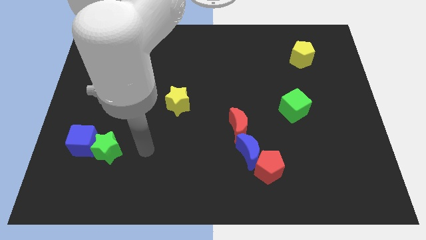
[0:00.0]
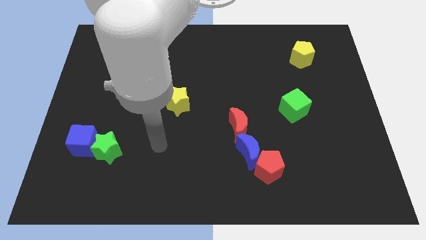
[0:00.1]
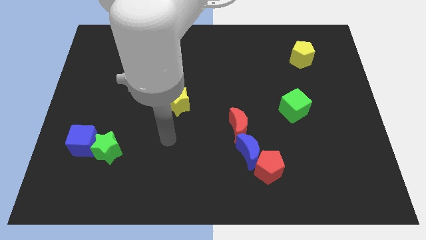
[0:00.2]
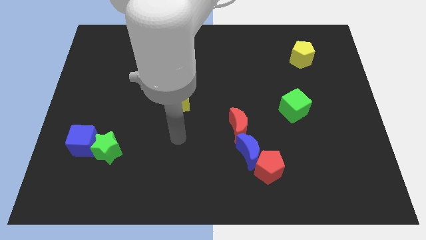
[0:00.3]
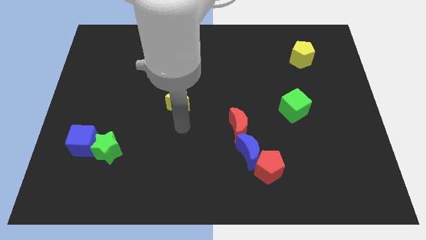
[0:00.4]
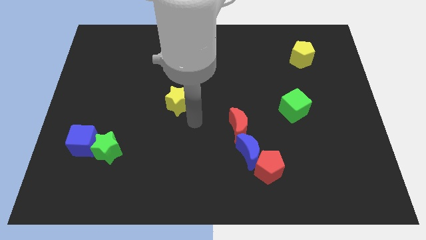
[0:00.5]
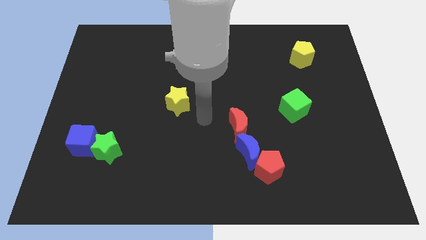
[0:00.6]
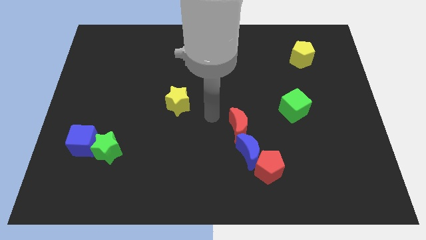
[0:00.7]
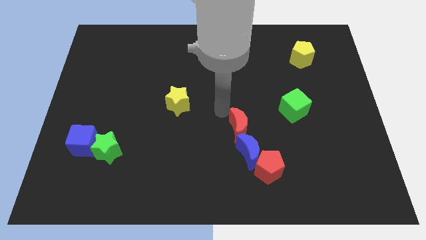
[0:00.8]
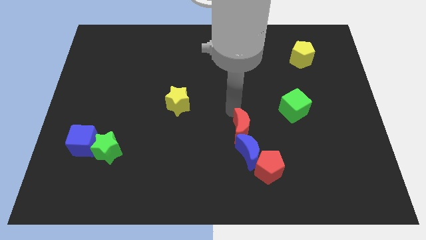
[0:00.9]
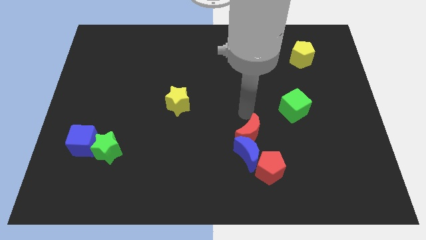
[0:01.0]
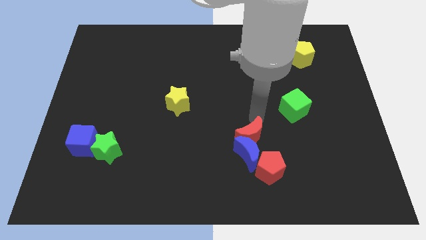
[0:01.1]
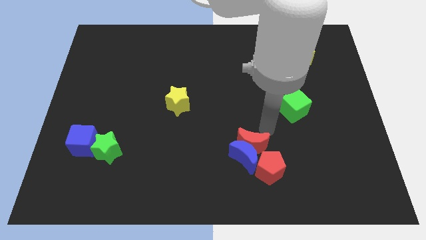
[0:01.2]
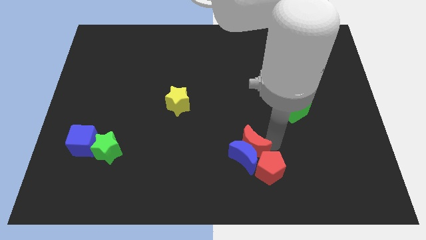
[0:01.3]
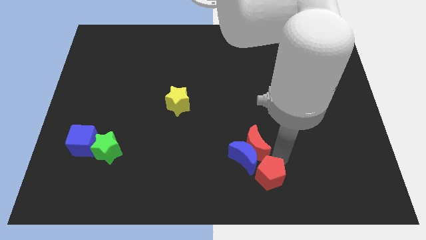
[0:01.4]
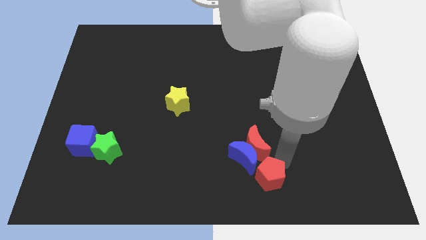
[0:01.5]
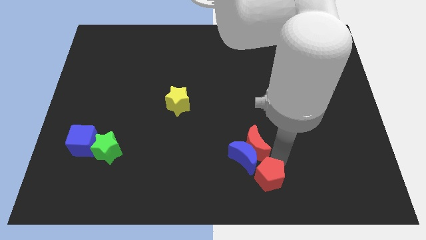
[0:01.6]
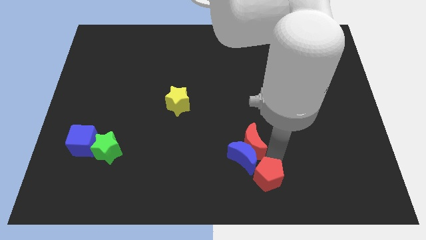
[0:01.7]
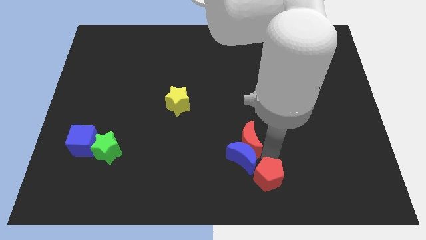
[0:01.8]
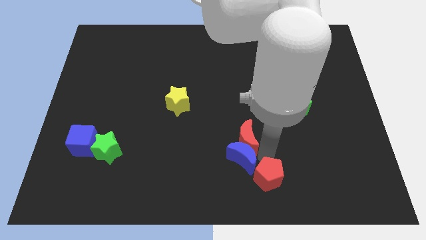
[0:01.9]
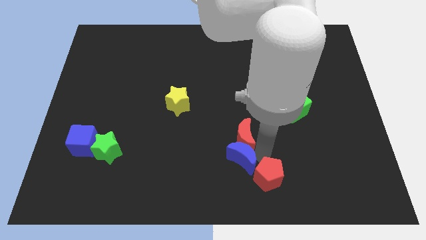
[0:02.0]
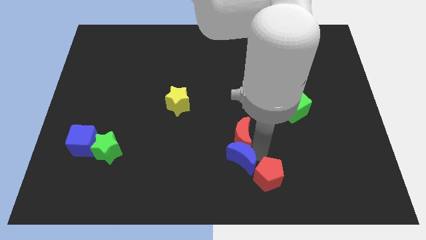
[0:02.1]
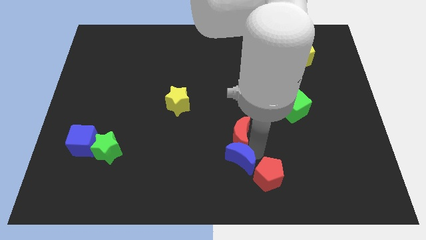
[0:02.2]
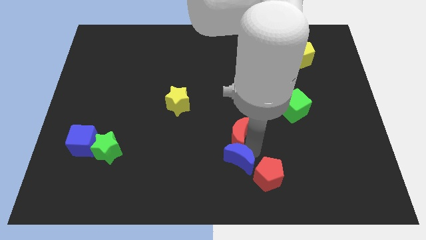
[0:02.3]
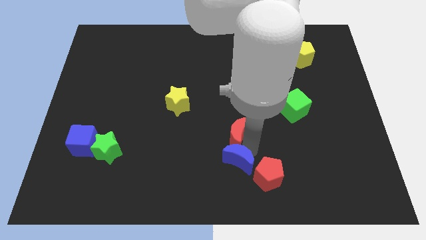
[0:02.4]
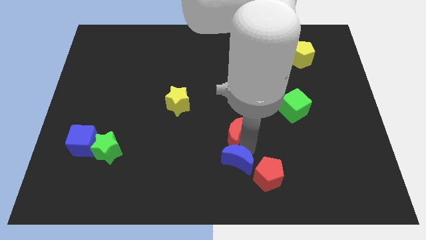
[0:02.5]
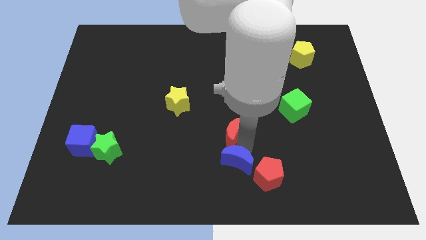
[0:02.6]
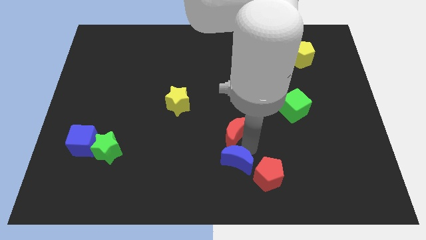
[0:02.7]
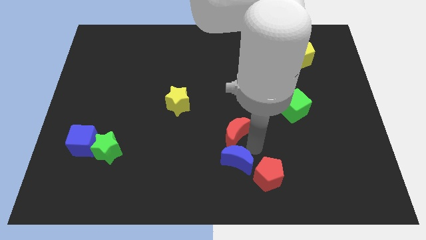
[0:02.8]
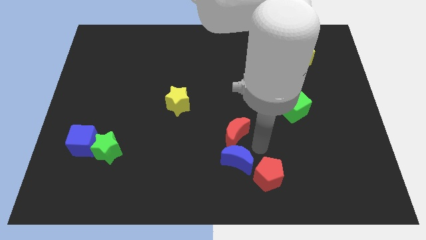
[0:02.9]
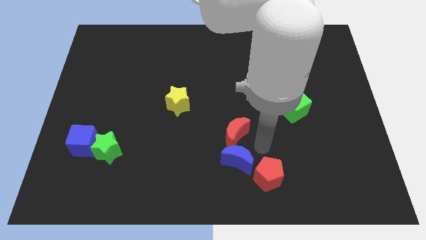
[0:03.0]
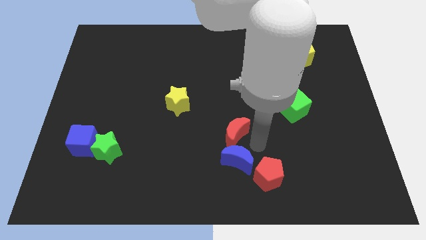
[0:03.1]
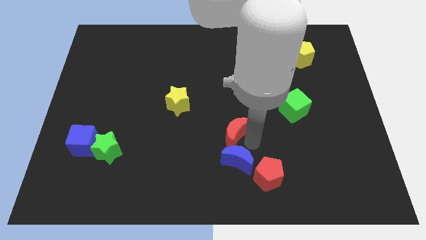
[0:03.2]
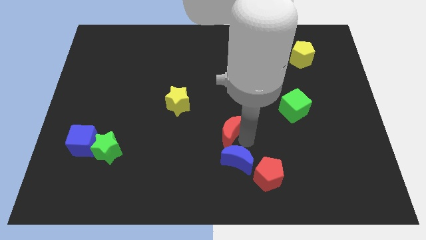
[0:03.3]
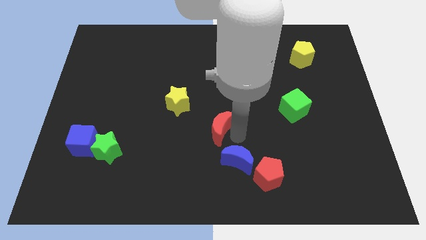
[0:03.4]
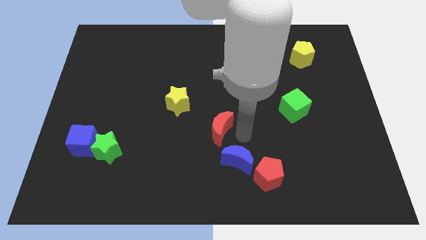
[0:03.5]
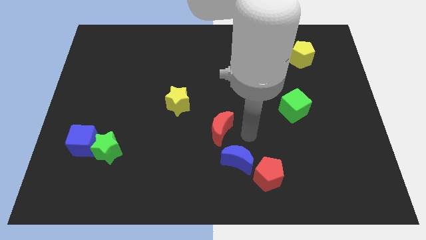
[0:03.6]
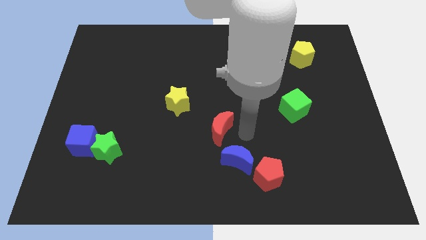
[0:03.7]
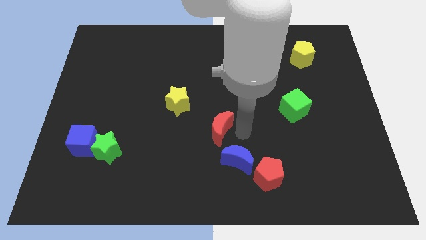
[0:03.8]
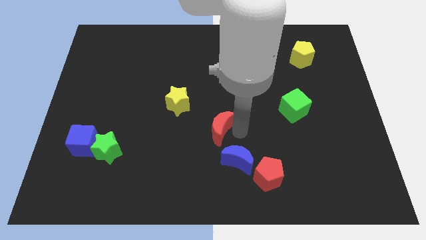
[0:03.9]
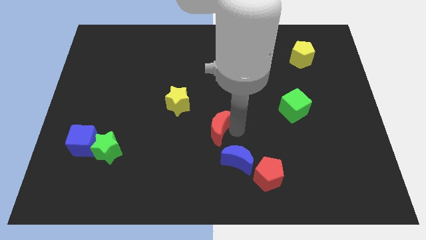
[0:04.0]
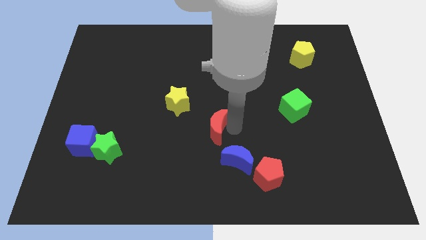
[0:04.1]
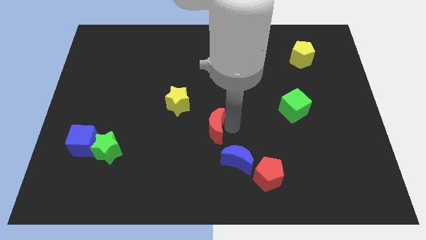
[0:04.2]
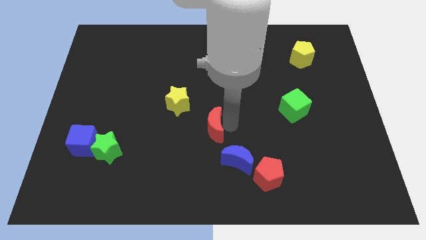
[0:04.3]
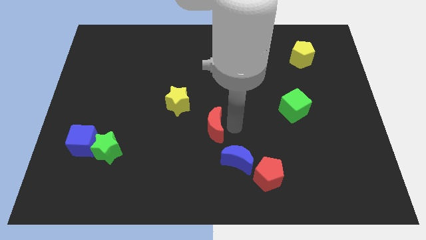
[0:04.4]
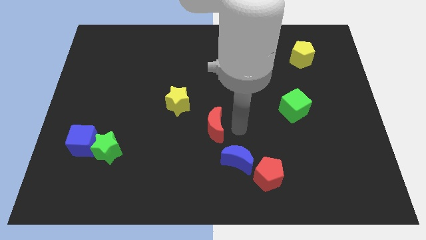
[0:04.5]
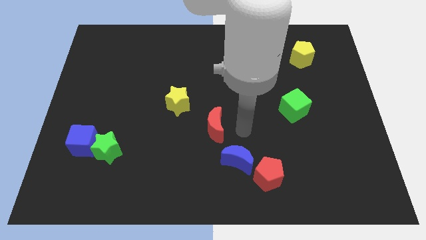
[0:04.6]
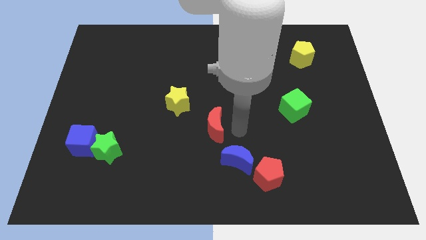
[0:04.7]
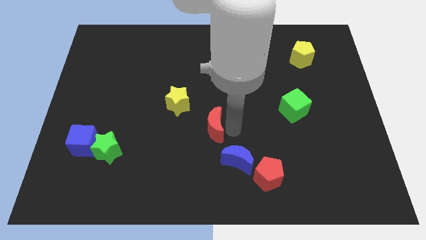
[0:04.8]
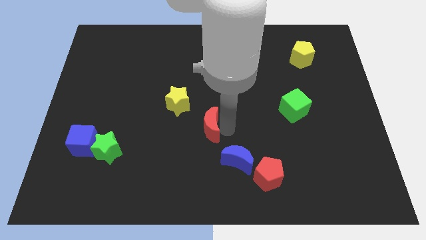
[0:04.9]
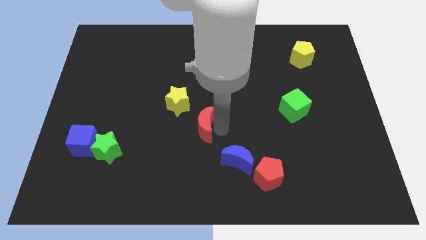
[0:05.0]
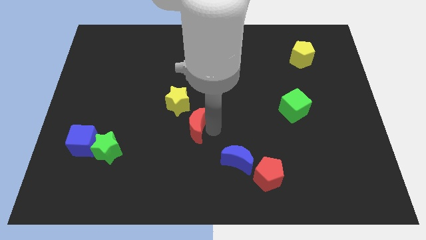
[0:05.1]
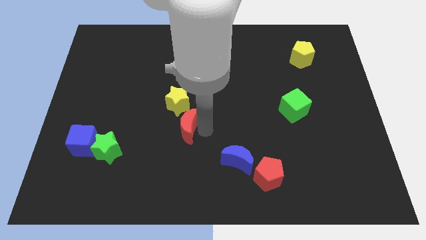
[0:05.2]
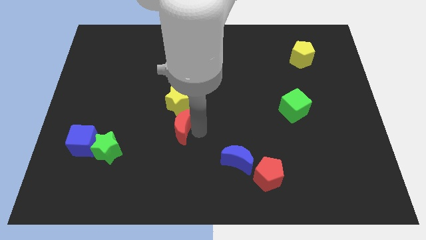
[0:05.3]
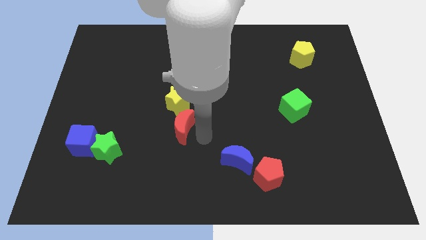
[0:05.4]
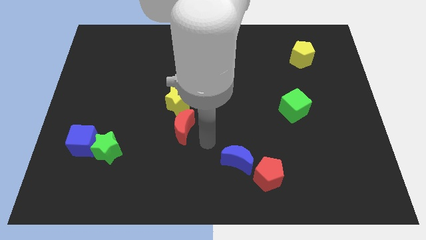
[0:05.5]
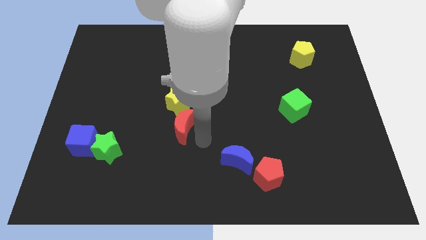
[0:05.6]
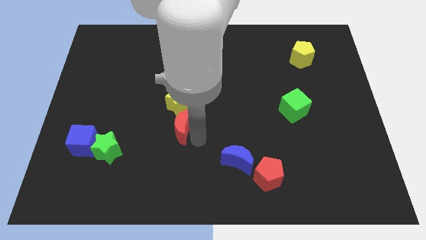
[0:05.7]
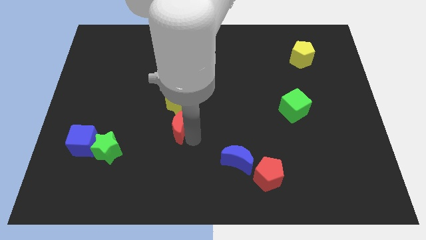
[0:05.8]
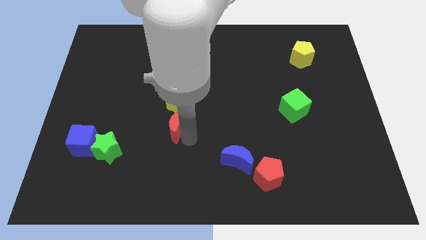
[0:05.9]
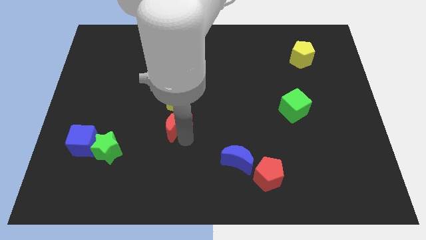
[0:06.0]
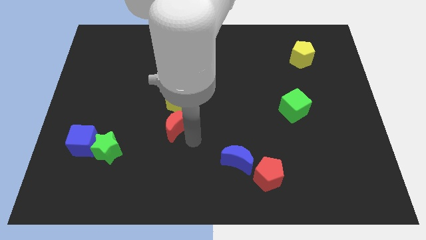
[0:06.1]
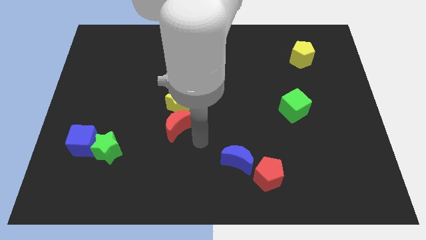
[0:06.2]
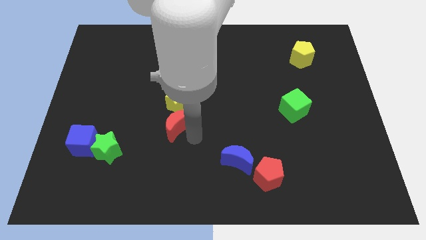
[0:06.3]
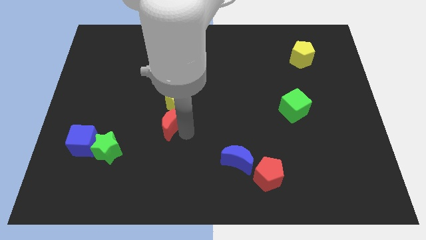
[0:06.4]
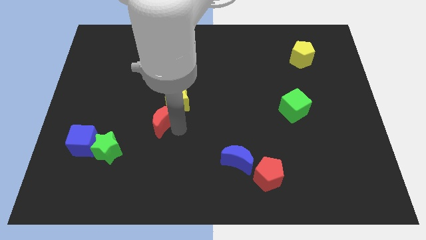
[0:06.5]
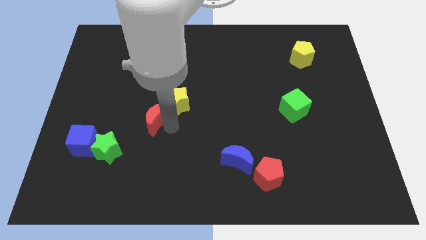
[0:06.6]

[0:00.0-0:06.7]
push the red moon to the left of the yellow star
